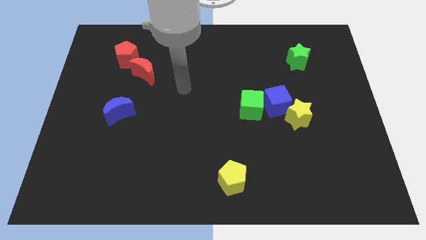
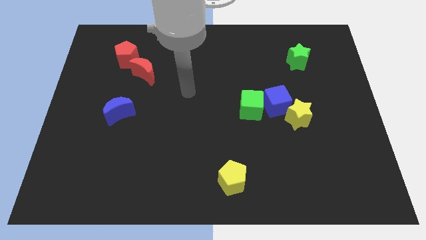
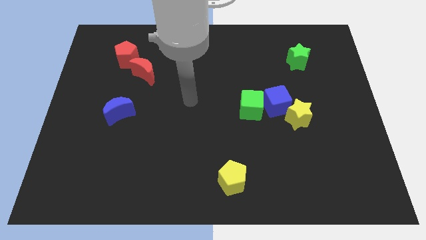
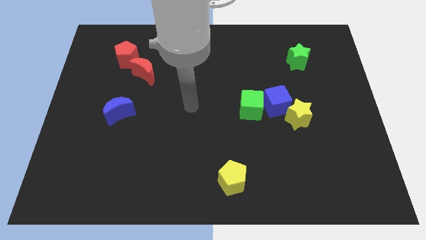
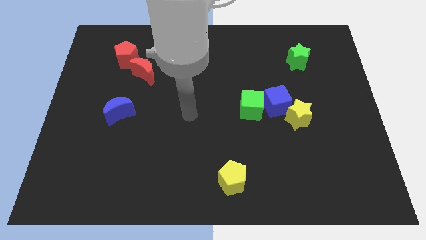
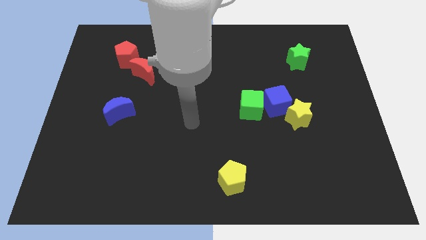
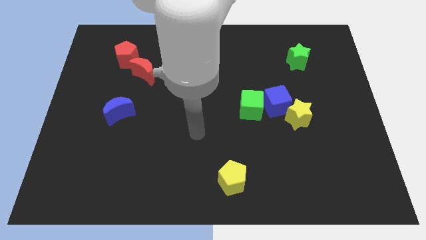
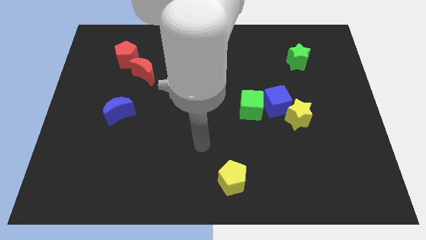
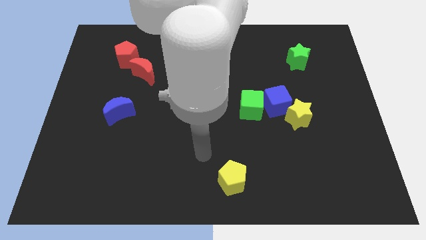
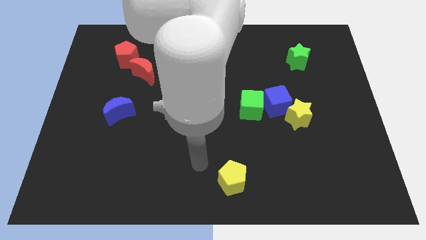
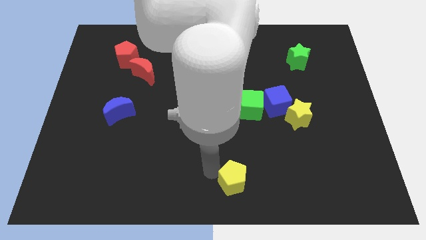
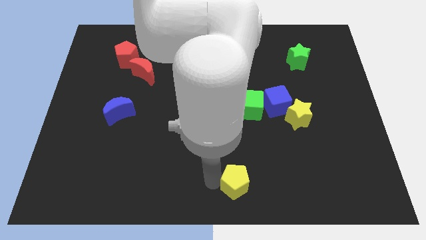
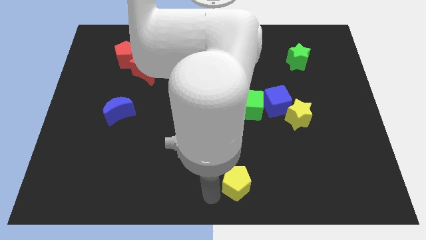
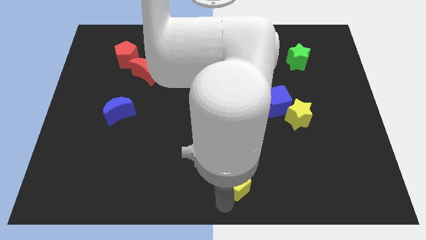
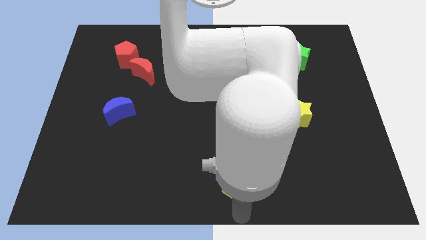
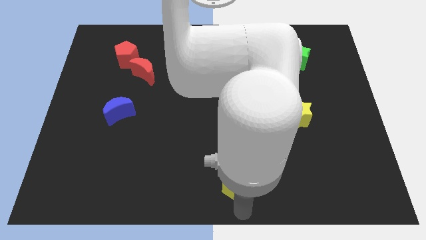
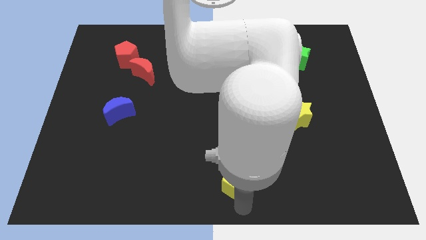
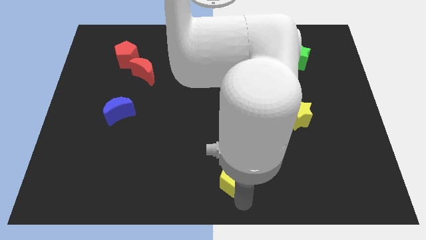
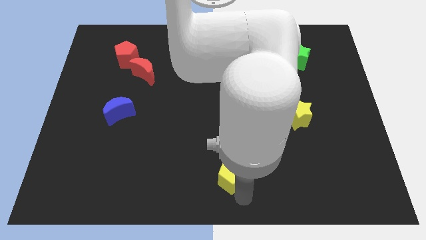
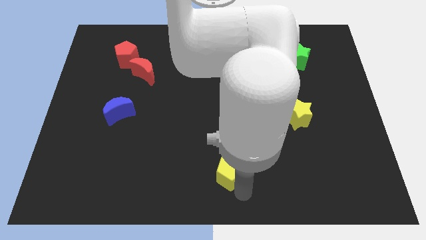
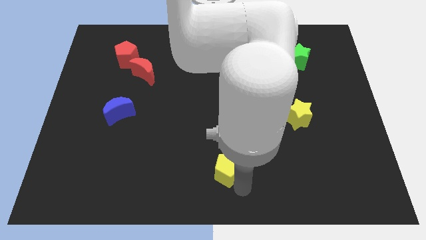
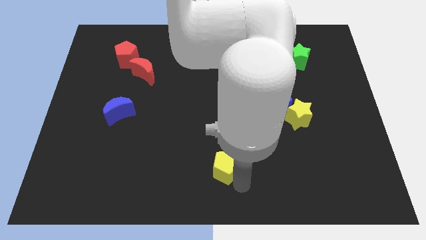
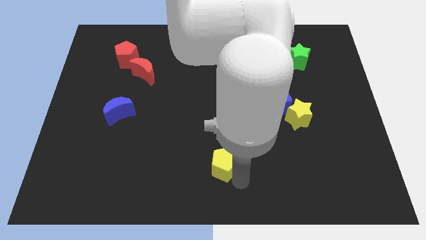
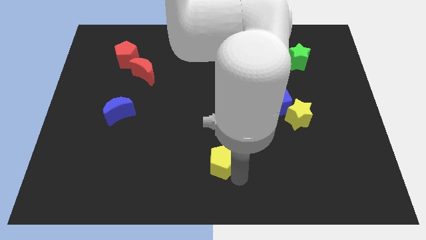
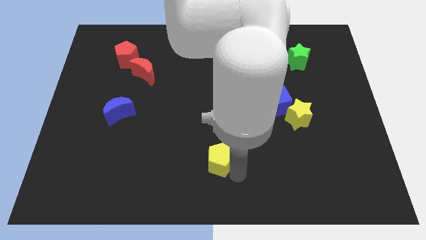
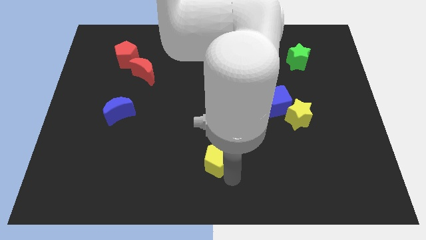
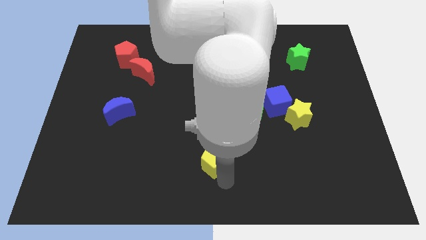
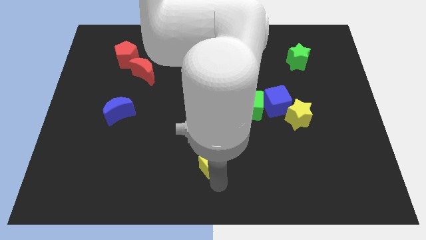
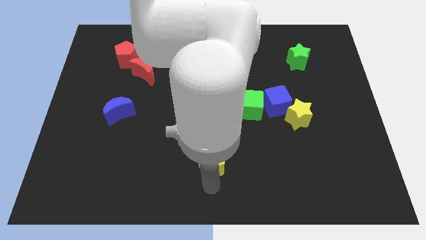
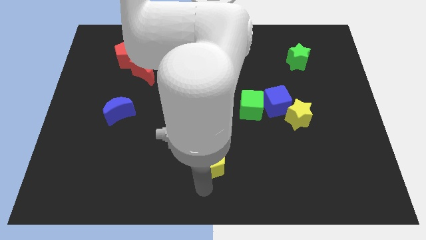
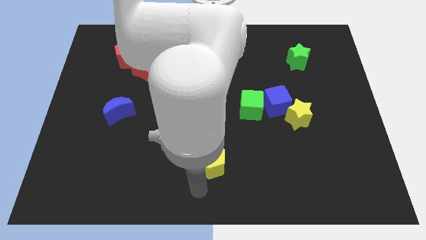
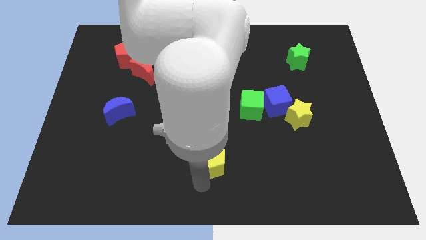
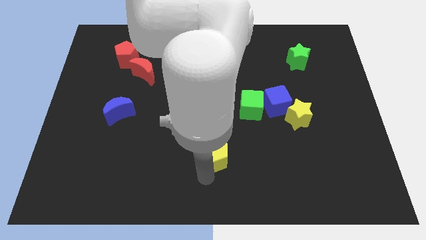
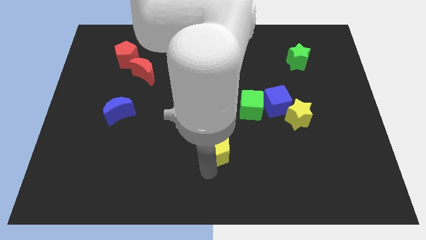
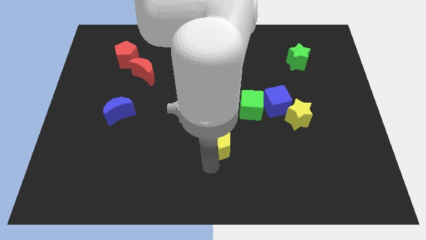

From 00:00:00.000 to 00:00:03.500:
slightly move the yellow pentagon up

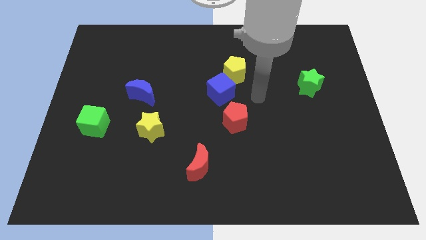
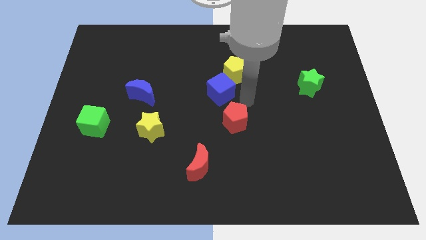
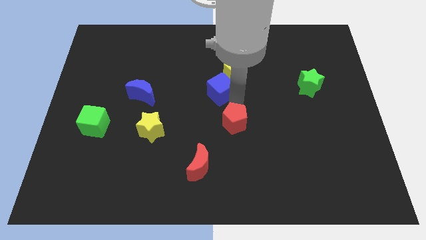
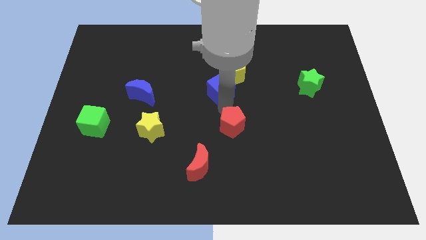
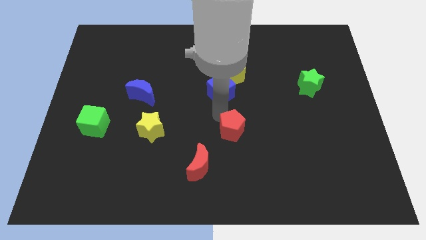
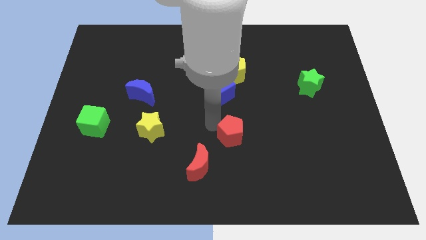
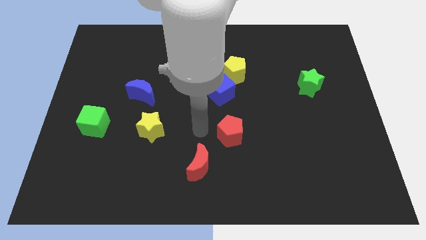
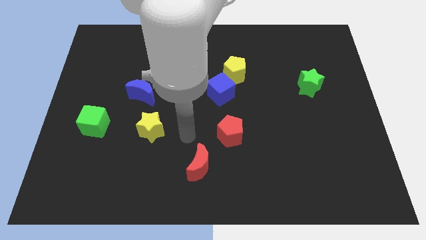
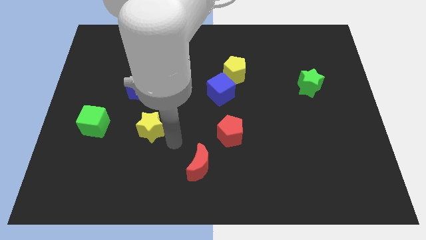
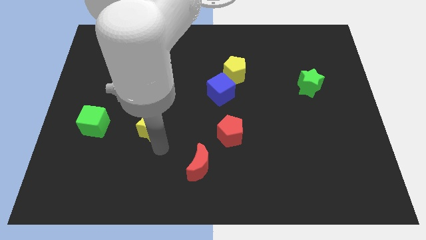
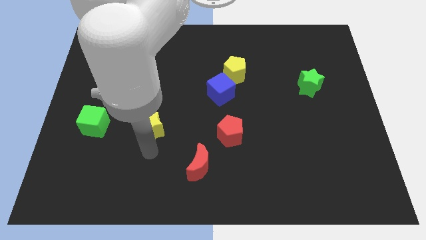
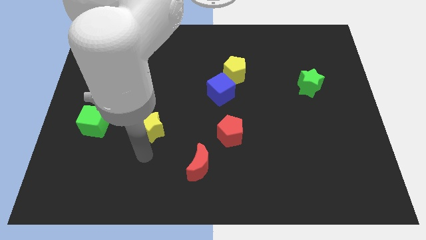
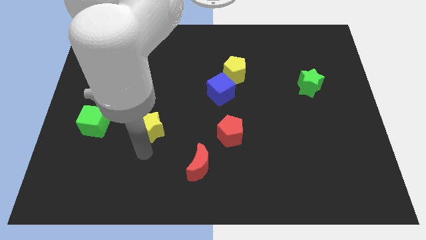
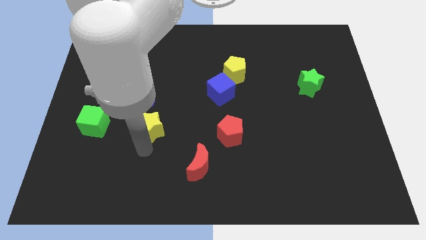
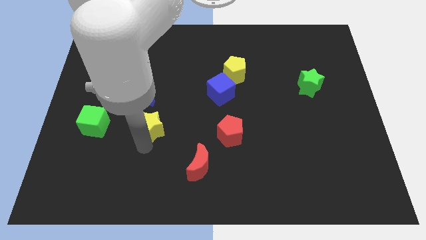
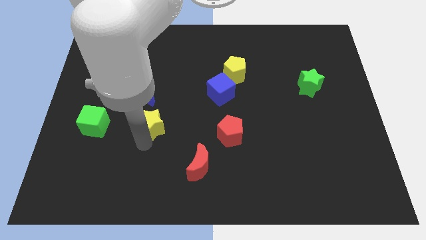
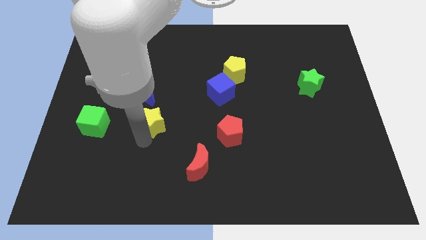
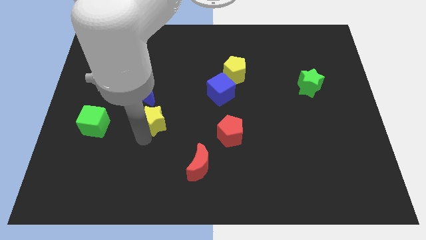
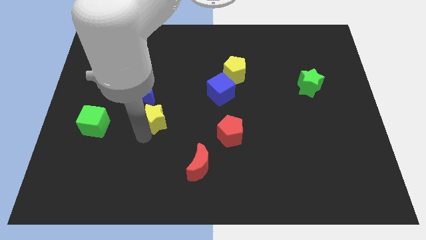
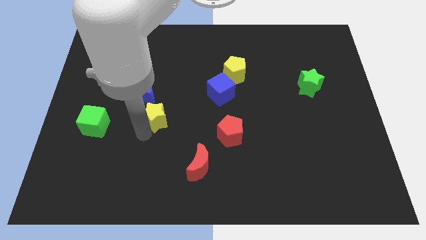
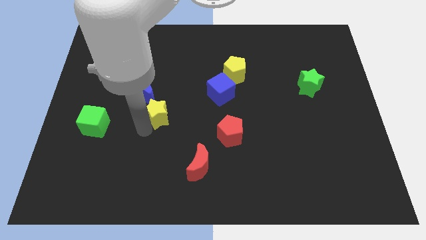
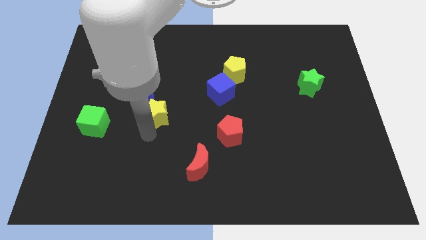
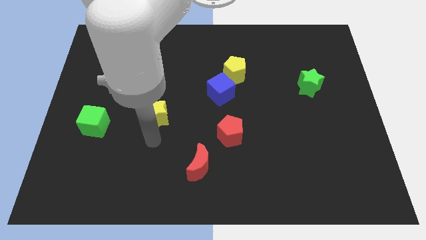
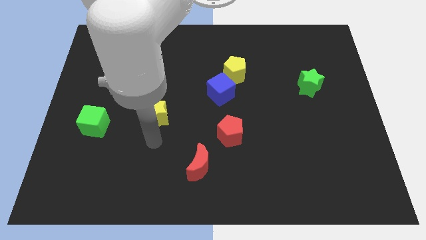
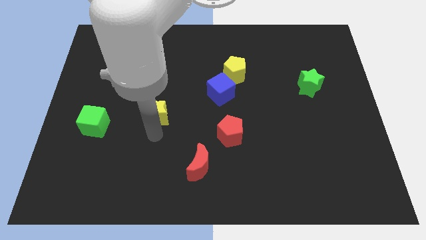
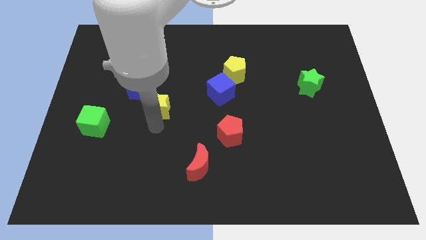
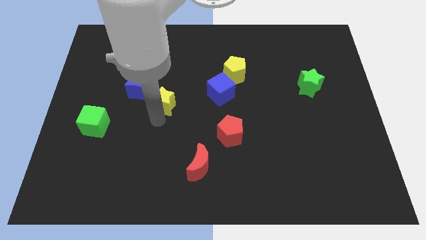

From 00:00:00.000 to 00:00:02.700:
slightly slide the yellow star upwards

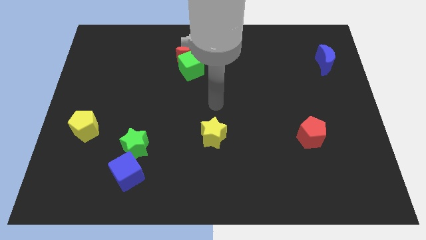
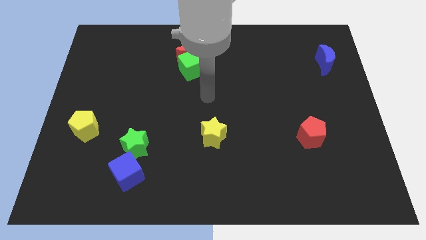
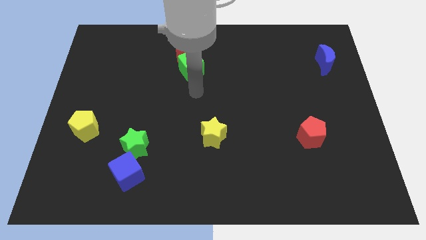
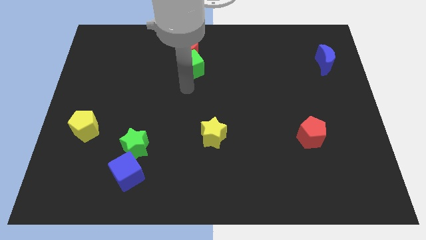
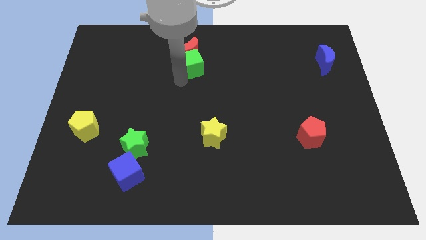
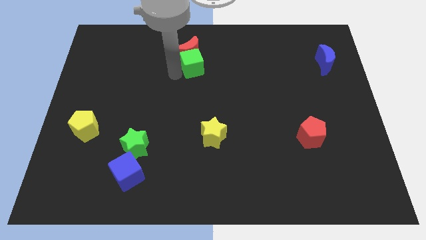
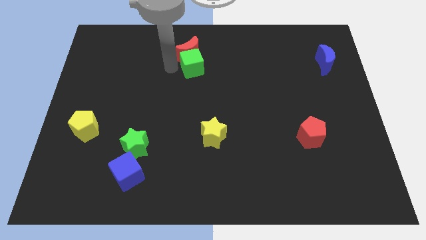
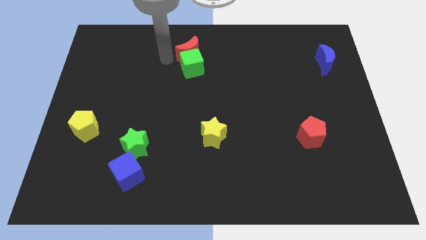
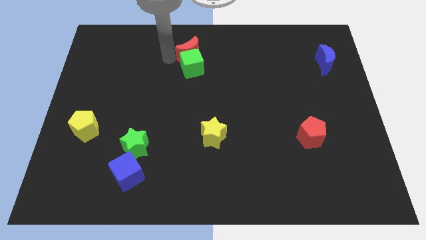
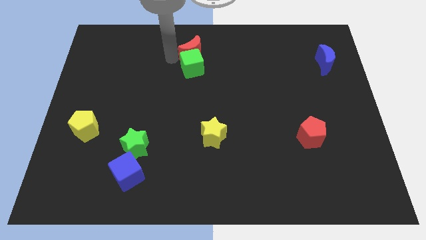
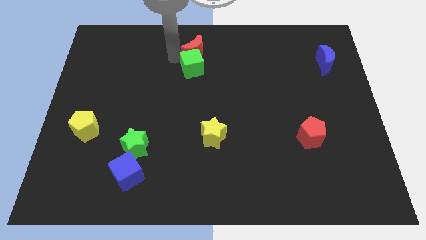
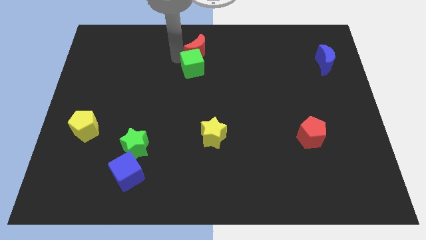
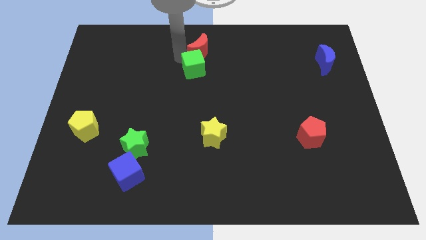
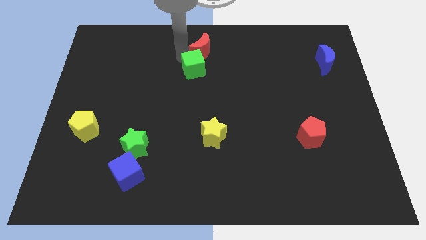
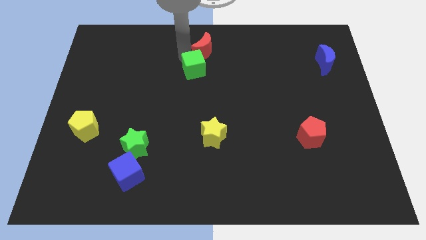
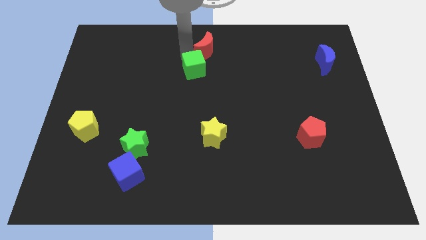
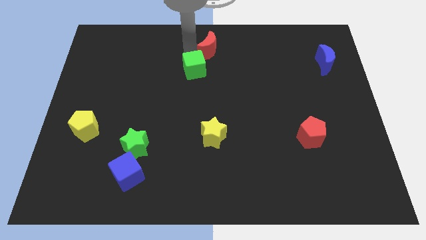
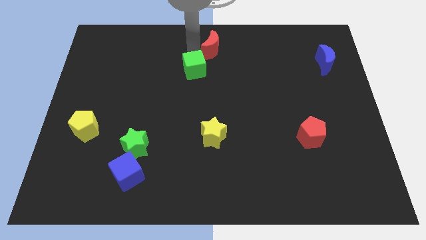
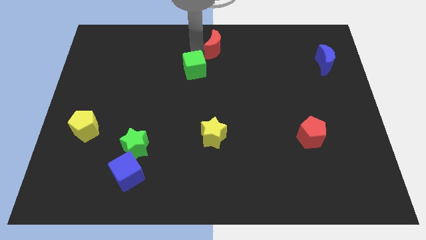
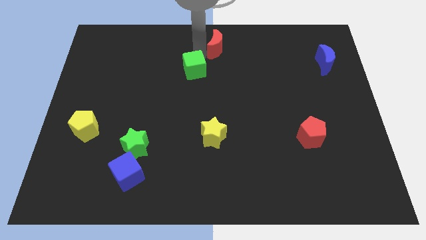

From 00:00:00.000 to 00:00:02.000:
slightly slide the red moon to the right
